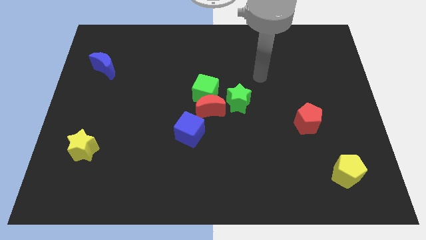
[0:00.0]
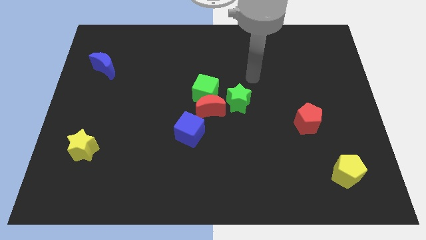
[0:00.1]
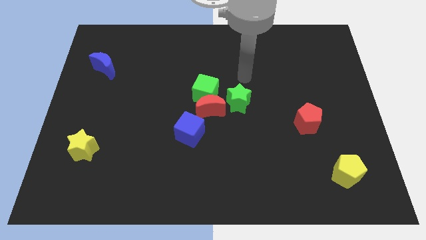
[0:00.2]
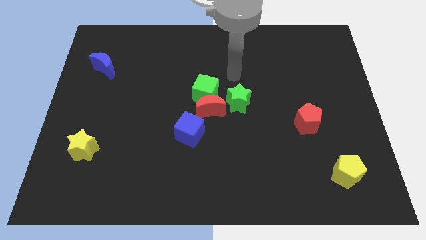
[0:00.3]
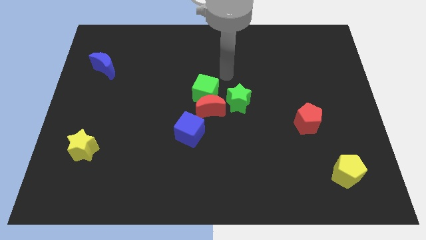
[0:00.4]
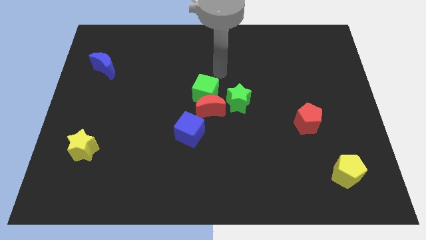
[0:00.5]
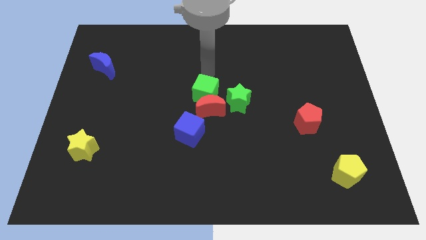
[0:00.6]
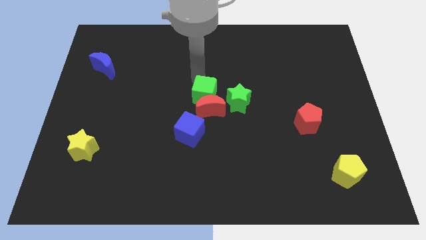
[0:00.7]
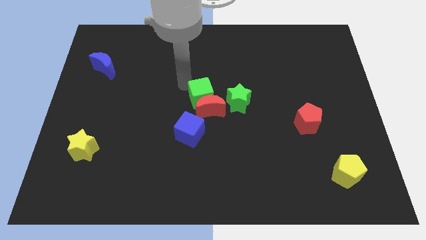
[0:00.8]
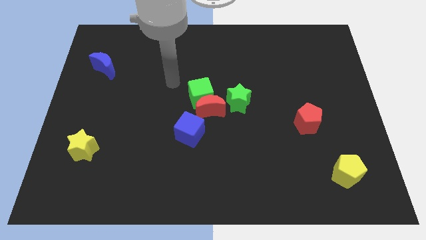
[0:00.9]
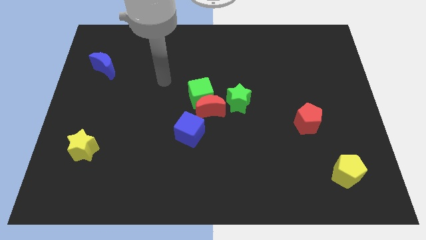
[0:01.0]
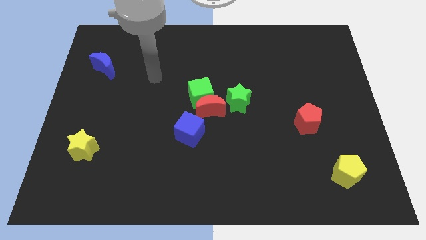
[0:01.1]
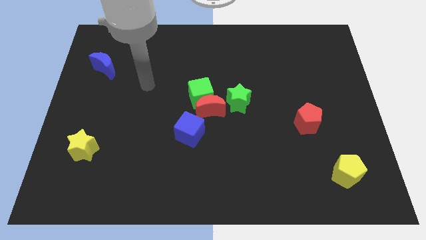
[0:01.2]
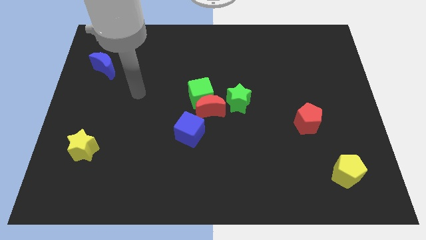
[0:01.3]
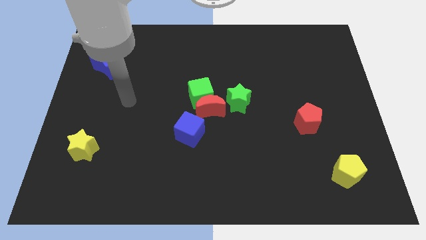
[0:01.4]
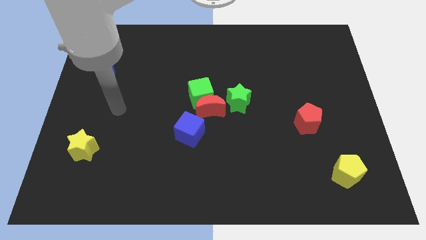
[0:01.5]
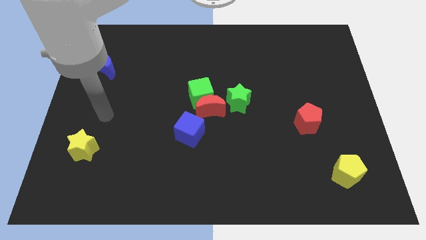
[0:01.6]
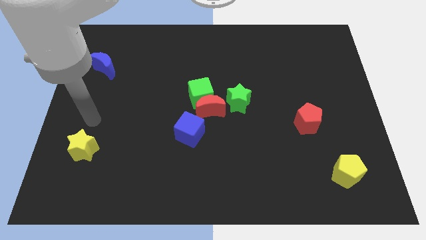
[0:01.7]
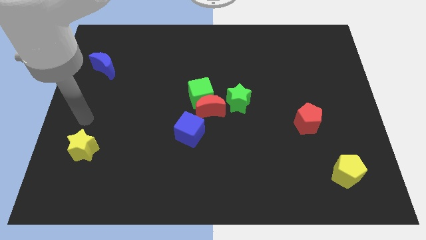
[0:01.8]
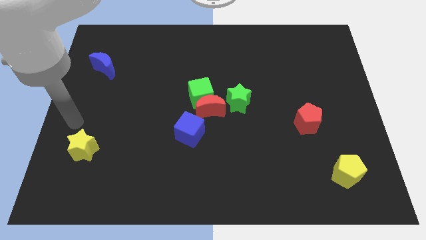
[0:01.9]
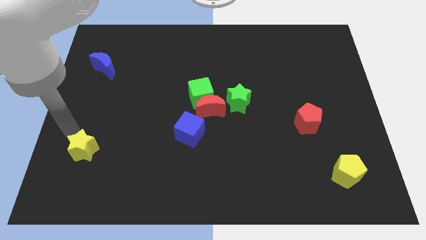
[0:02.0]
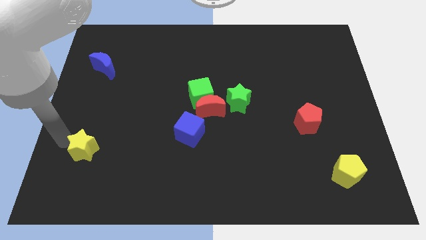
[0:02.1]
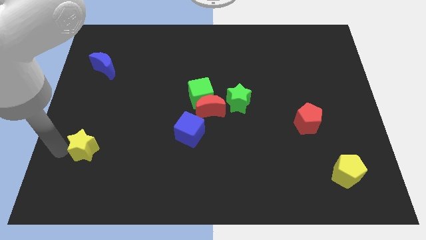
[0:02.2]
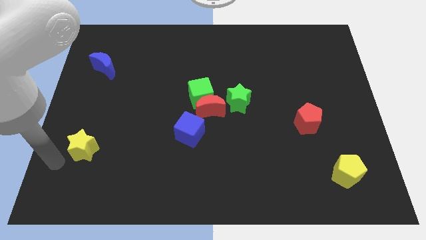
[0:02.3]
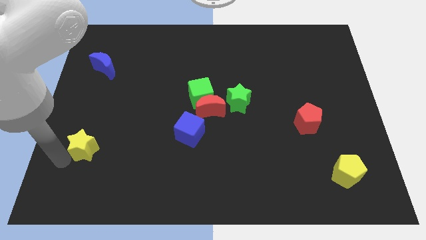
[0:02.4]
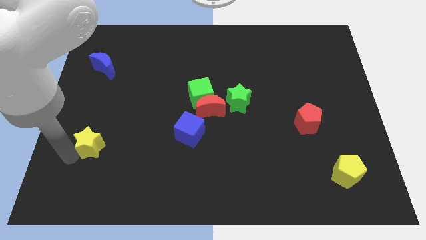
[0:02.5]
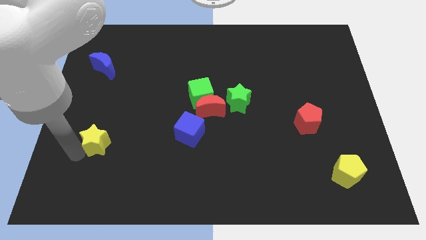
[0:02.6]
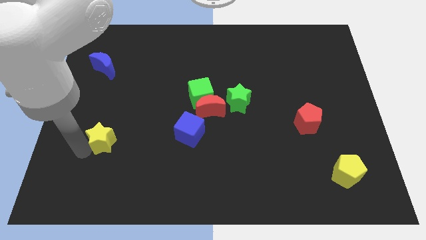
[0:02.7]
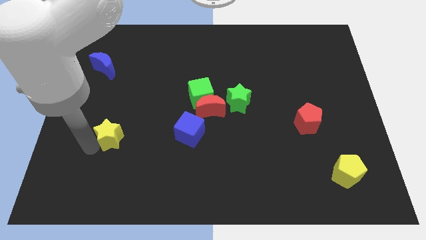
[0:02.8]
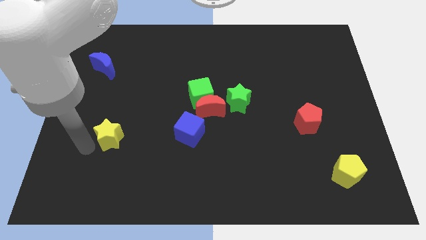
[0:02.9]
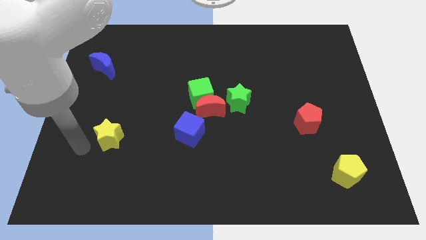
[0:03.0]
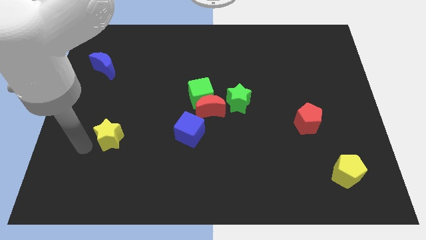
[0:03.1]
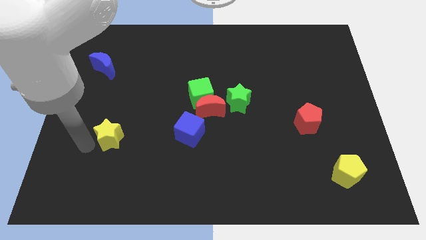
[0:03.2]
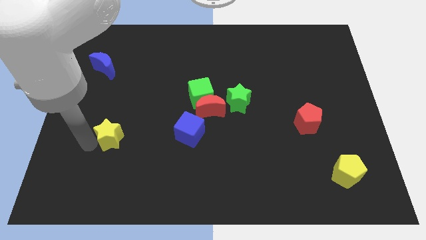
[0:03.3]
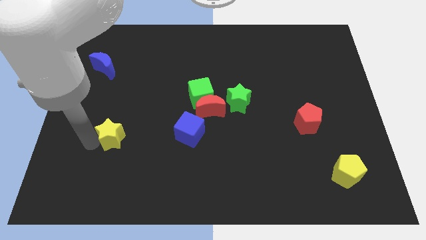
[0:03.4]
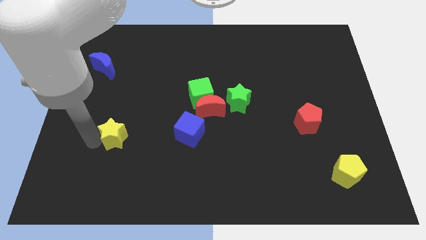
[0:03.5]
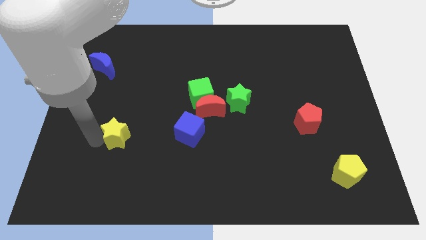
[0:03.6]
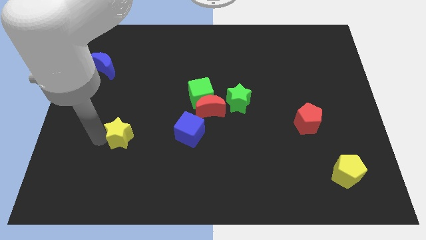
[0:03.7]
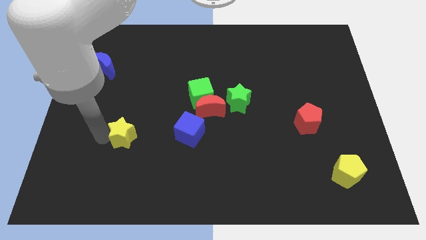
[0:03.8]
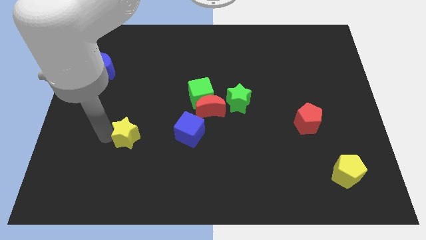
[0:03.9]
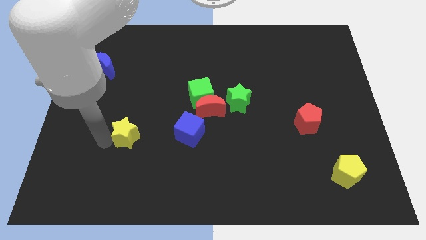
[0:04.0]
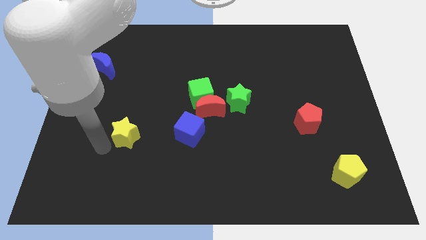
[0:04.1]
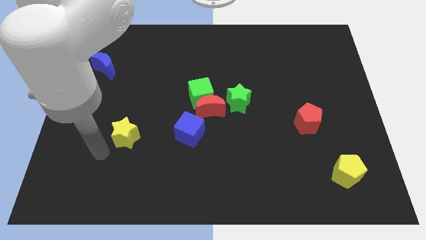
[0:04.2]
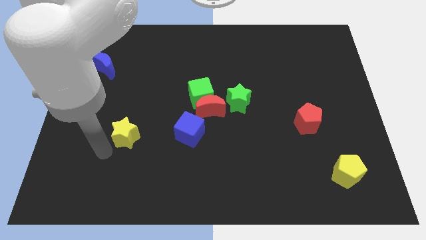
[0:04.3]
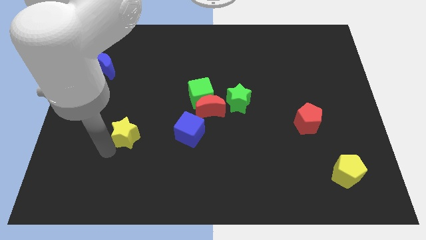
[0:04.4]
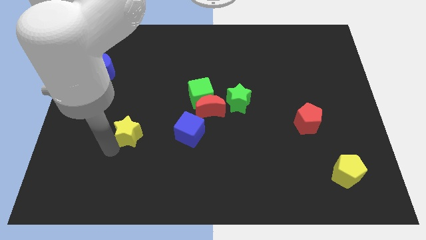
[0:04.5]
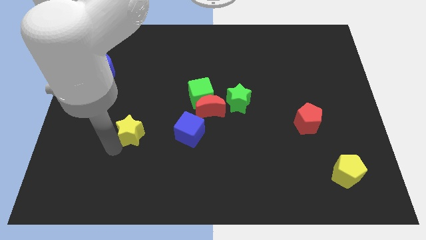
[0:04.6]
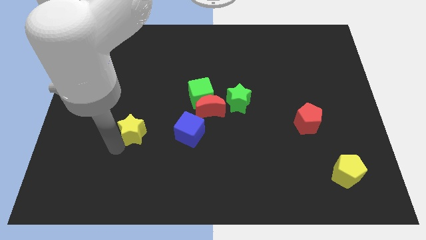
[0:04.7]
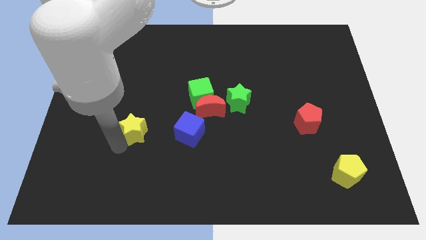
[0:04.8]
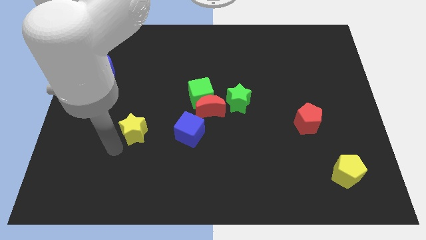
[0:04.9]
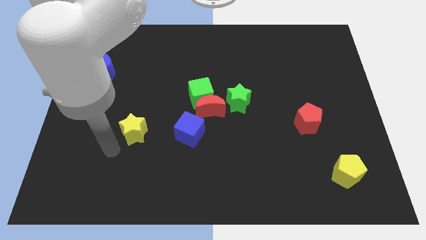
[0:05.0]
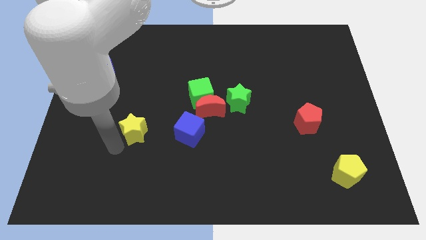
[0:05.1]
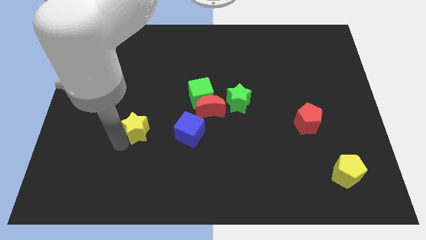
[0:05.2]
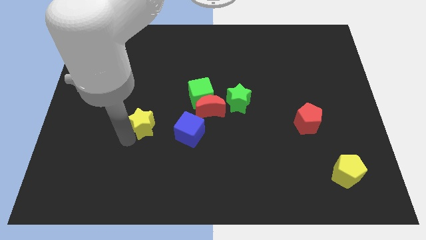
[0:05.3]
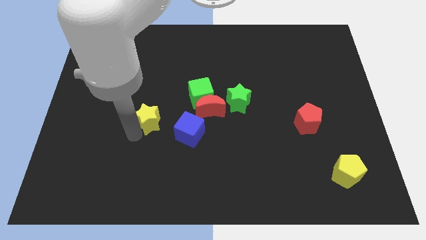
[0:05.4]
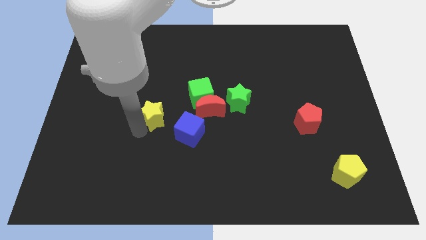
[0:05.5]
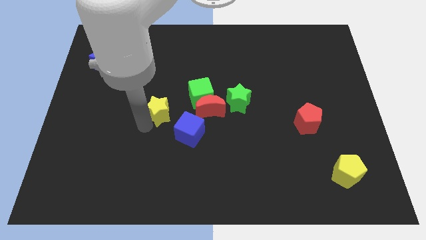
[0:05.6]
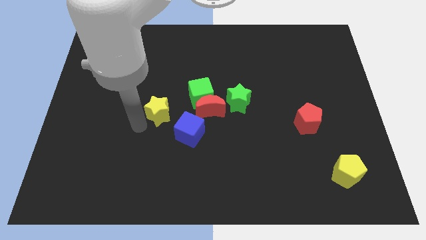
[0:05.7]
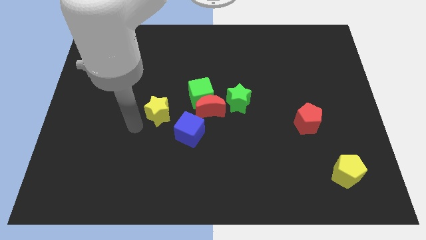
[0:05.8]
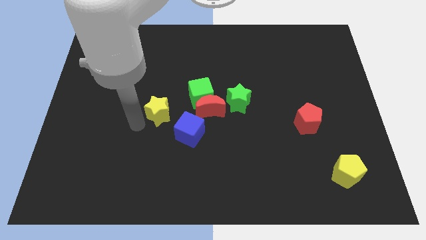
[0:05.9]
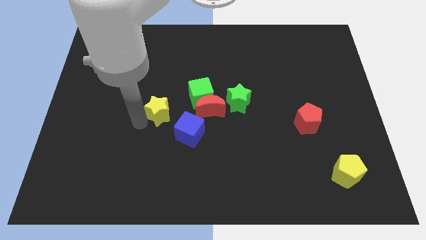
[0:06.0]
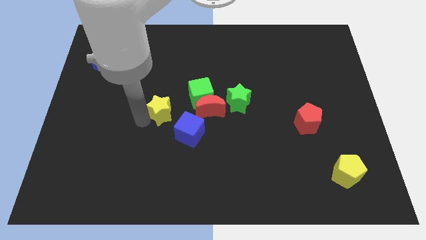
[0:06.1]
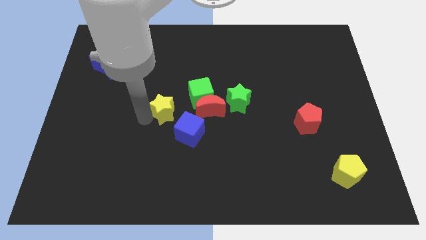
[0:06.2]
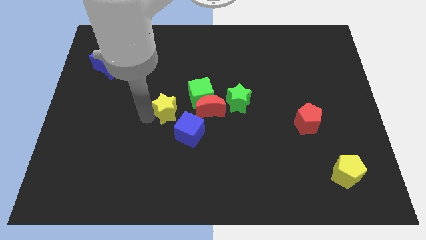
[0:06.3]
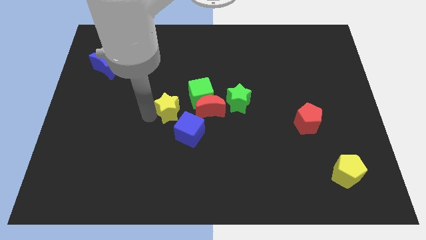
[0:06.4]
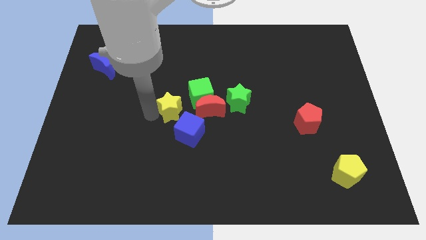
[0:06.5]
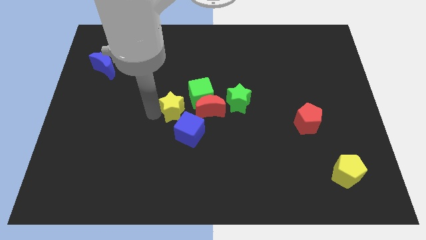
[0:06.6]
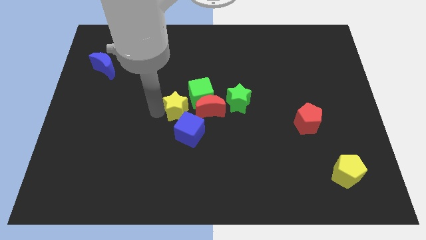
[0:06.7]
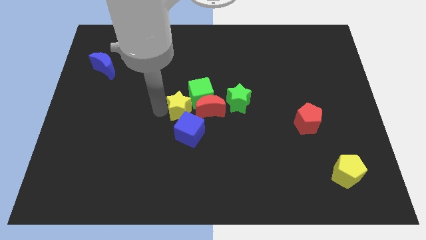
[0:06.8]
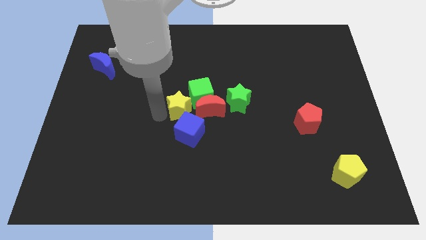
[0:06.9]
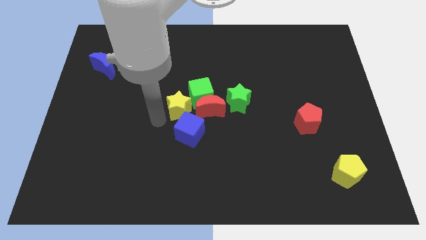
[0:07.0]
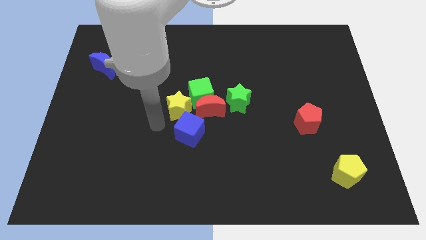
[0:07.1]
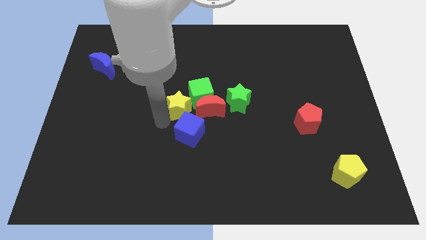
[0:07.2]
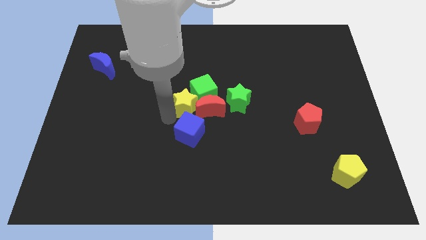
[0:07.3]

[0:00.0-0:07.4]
push the yellow star to the green cube

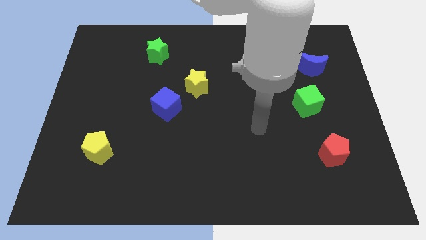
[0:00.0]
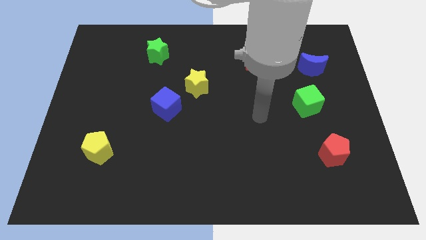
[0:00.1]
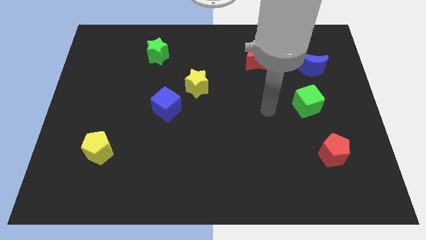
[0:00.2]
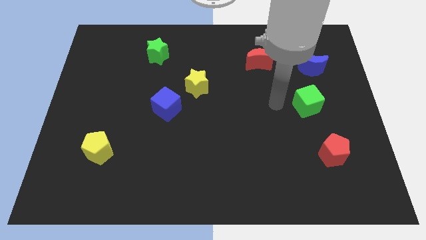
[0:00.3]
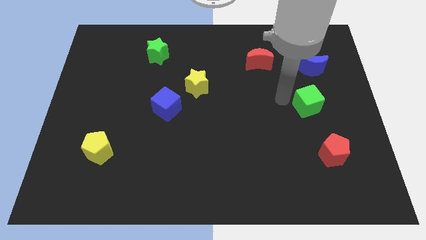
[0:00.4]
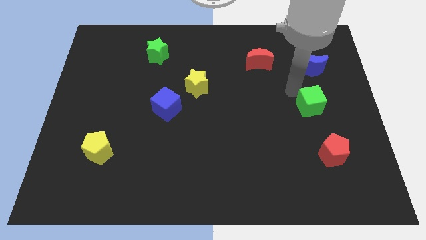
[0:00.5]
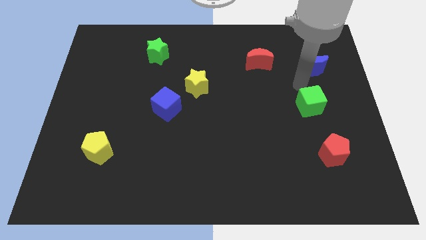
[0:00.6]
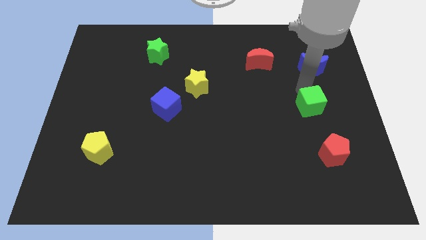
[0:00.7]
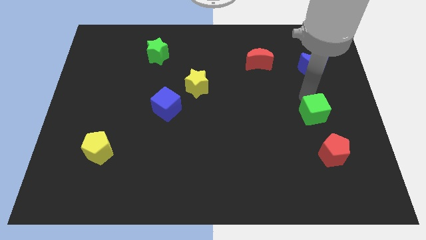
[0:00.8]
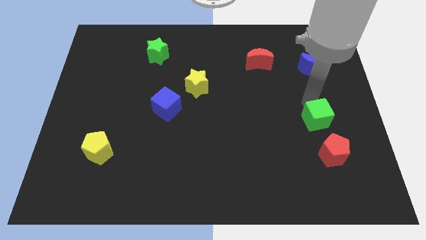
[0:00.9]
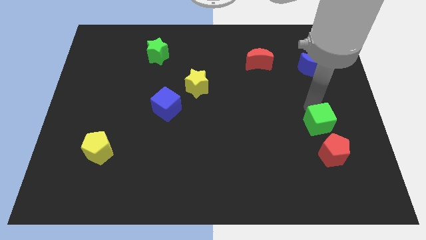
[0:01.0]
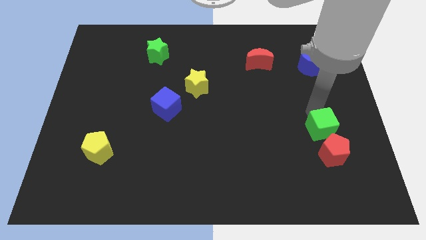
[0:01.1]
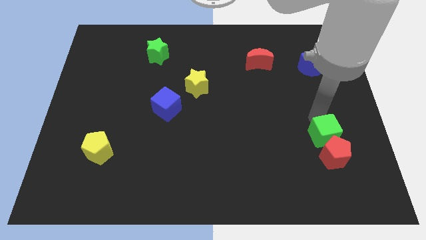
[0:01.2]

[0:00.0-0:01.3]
move the green cube close to the red pentagon
